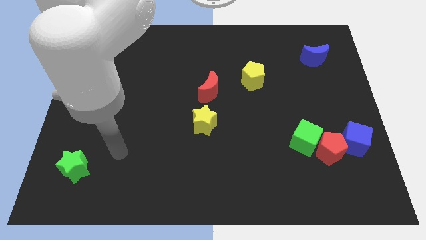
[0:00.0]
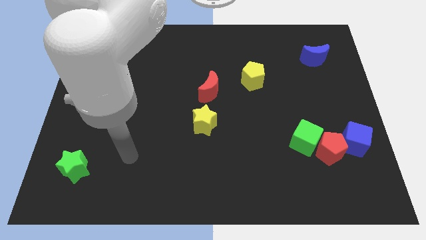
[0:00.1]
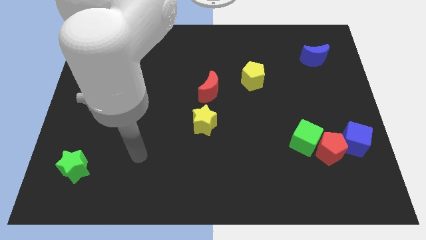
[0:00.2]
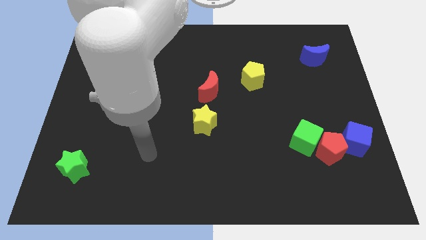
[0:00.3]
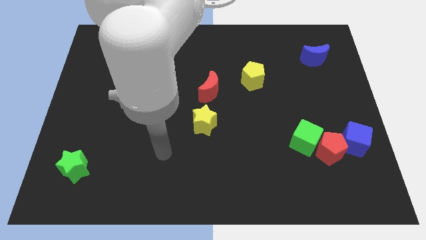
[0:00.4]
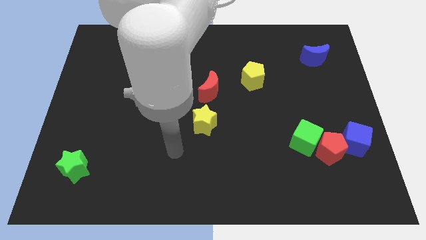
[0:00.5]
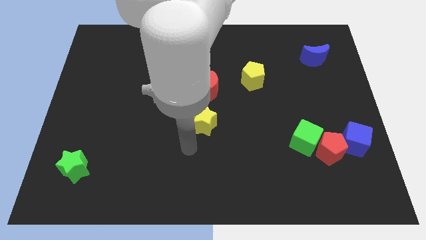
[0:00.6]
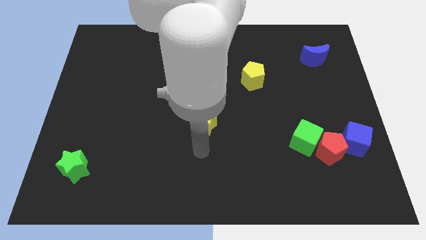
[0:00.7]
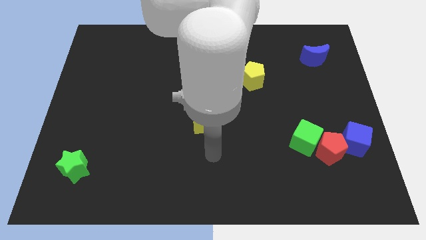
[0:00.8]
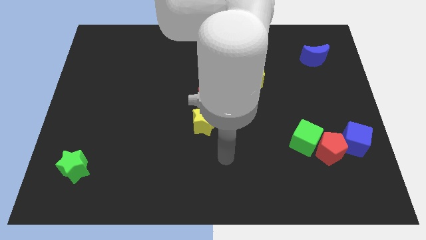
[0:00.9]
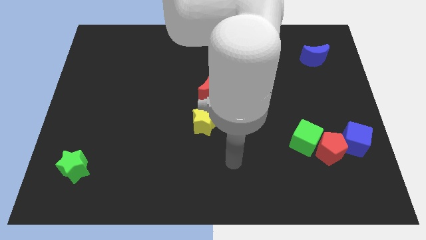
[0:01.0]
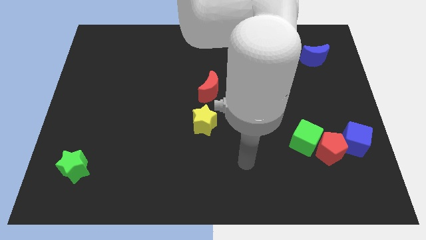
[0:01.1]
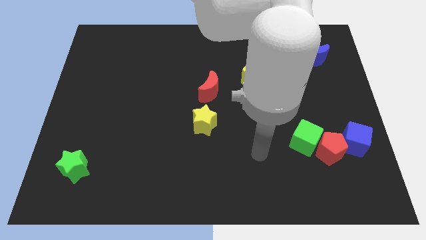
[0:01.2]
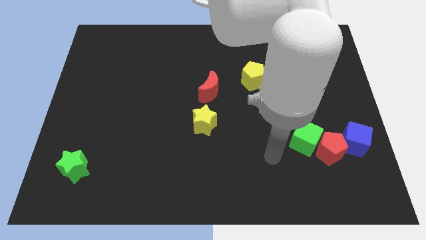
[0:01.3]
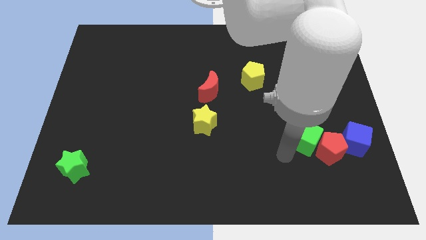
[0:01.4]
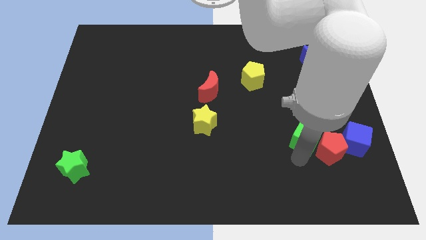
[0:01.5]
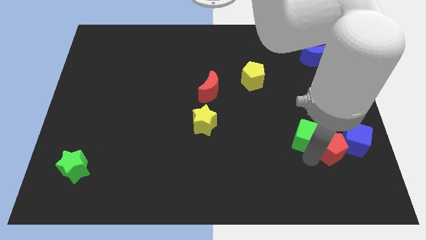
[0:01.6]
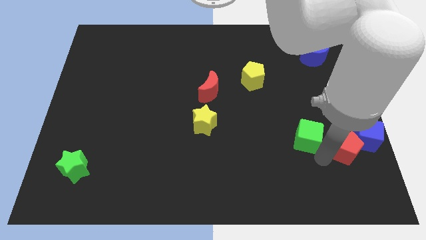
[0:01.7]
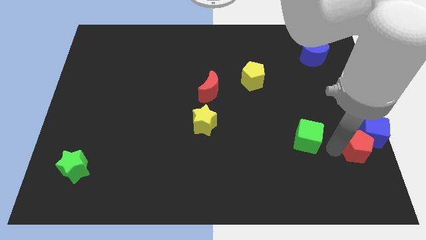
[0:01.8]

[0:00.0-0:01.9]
separate the green cube from the red pentagon

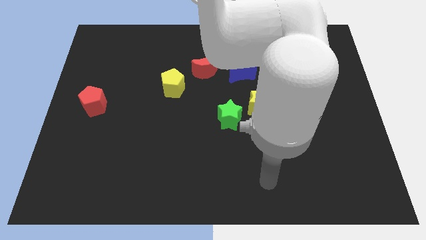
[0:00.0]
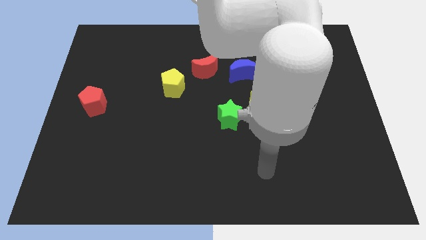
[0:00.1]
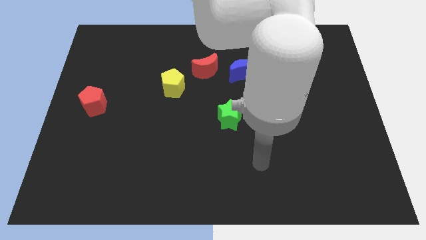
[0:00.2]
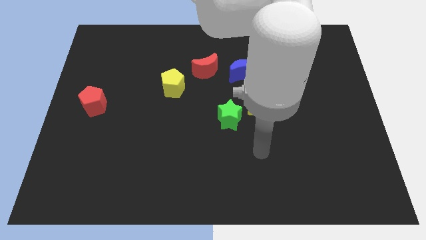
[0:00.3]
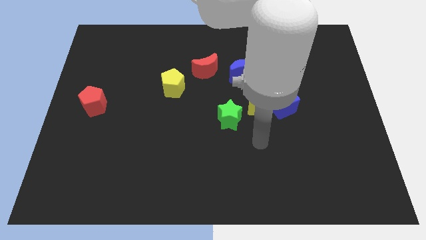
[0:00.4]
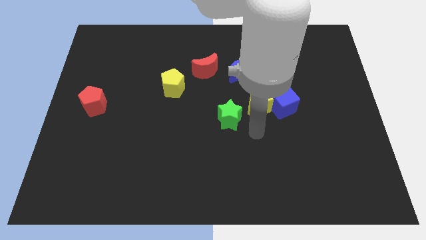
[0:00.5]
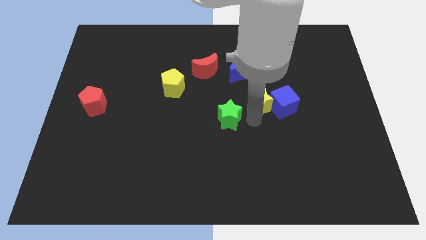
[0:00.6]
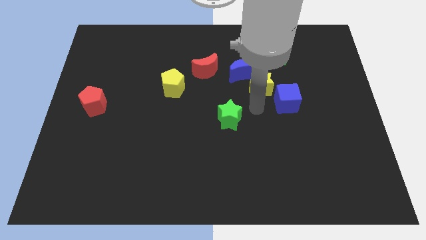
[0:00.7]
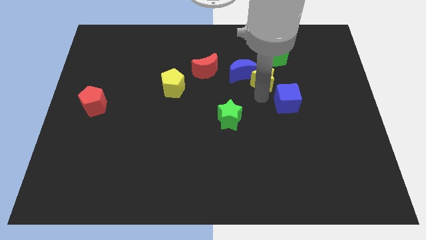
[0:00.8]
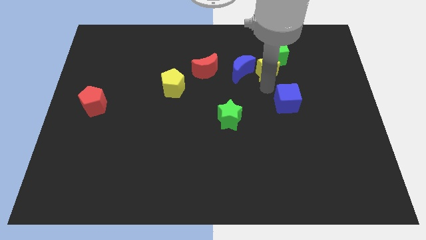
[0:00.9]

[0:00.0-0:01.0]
move the blue cube away from the yellow star

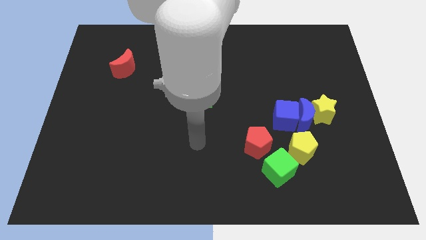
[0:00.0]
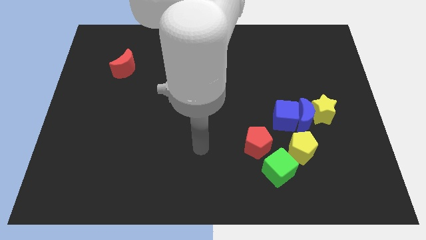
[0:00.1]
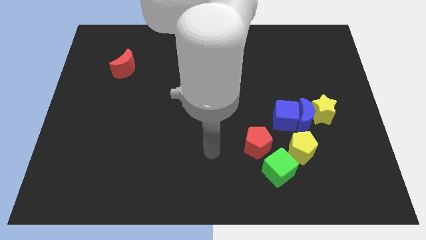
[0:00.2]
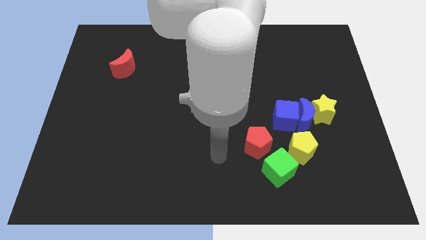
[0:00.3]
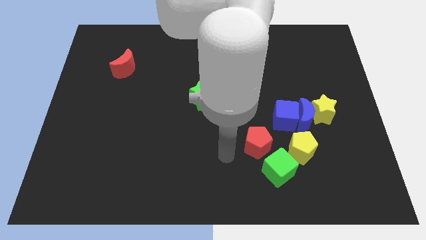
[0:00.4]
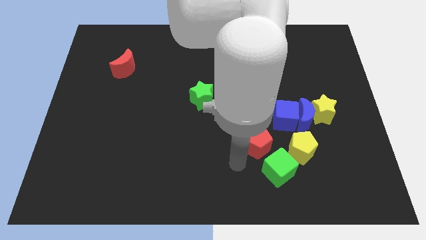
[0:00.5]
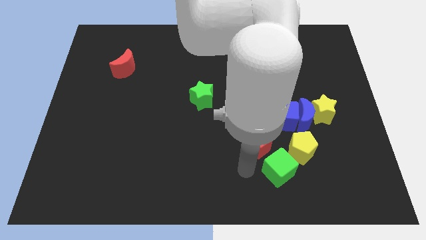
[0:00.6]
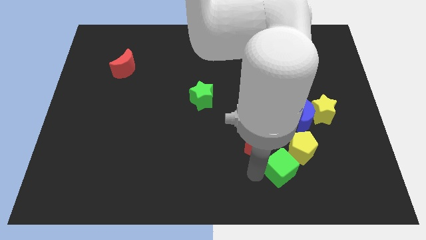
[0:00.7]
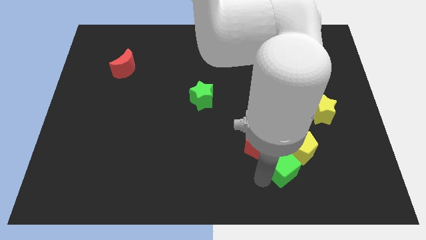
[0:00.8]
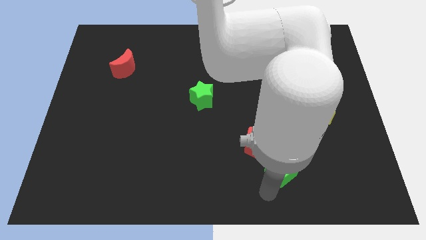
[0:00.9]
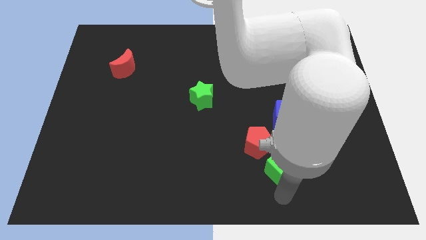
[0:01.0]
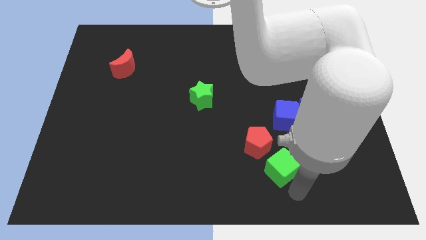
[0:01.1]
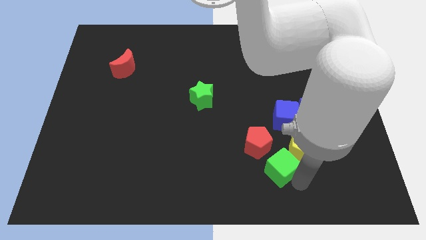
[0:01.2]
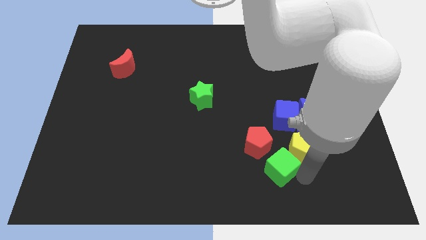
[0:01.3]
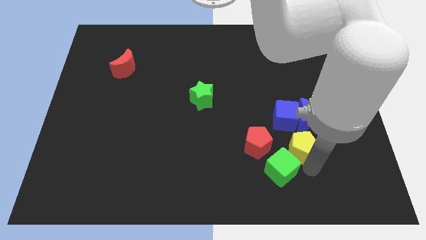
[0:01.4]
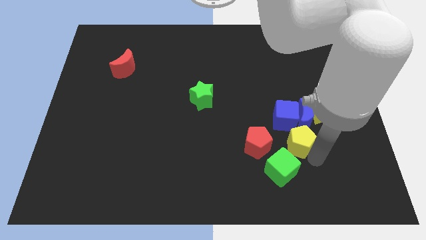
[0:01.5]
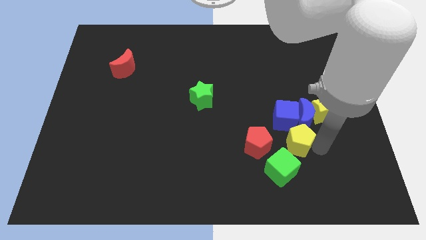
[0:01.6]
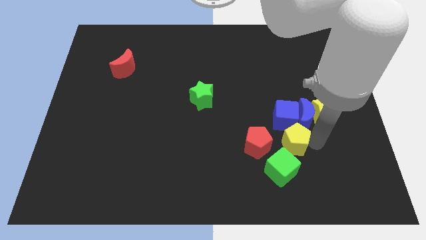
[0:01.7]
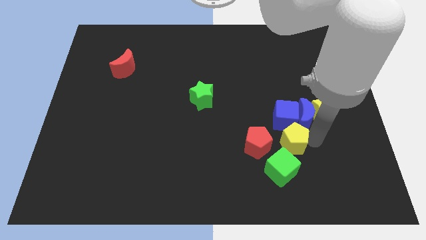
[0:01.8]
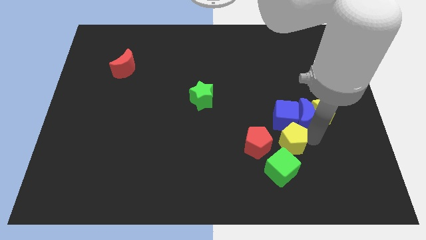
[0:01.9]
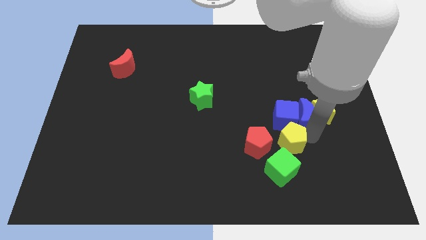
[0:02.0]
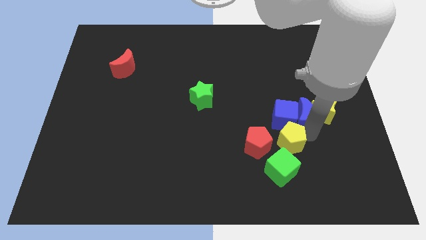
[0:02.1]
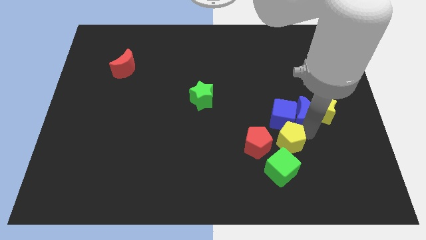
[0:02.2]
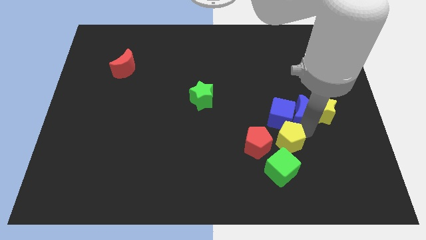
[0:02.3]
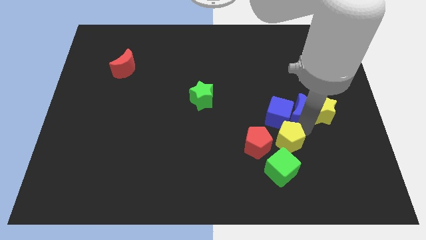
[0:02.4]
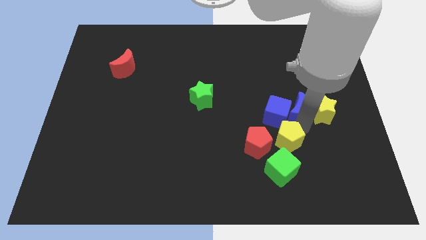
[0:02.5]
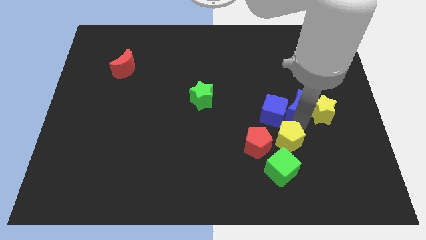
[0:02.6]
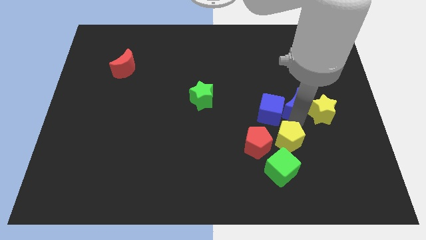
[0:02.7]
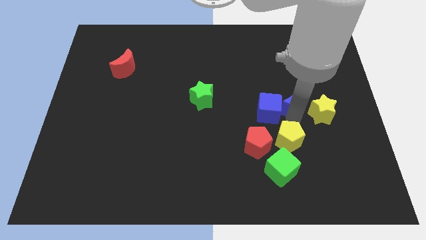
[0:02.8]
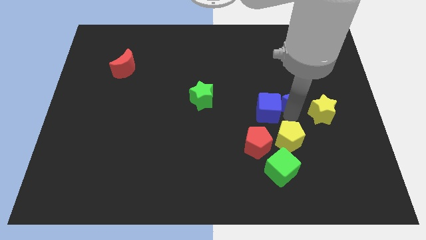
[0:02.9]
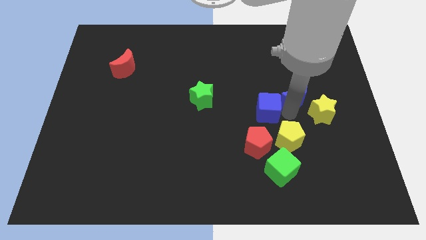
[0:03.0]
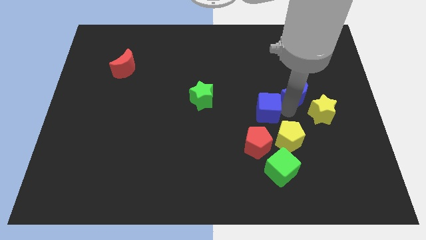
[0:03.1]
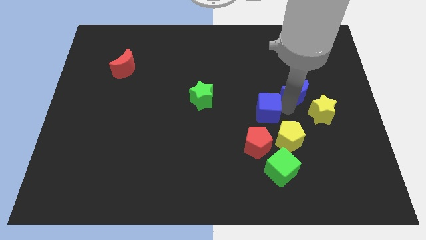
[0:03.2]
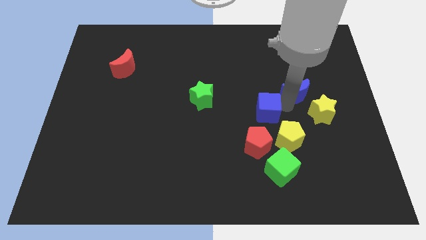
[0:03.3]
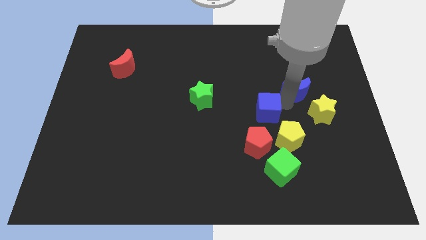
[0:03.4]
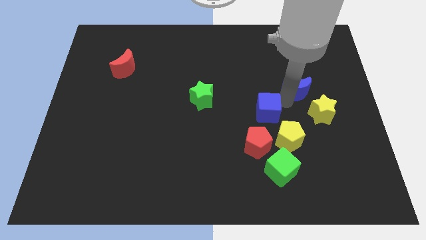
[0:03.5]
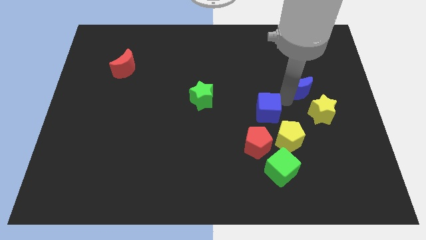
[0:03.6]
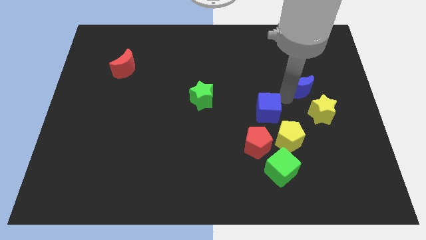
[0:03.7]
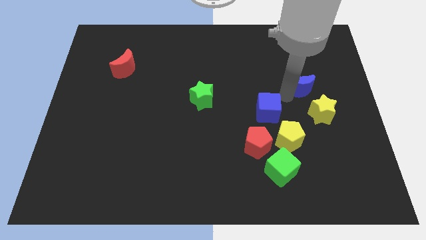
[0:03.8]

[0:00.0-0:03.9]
separate the blue moon from the clump

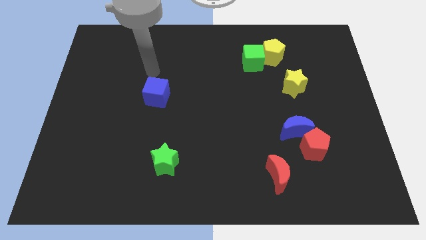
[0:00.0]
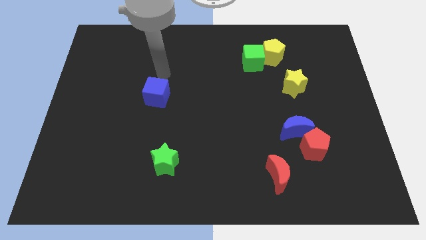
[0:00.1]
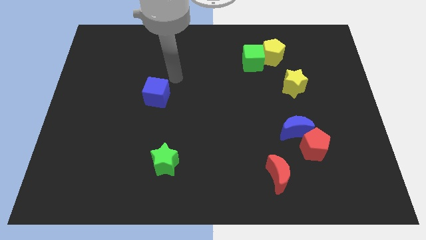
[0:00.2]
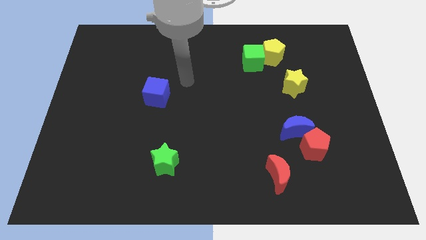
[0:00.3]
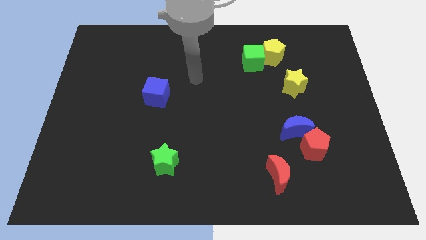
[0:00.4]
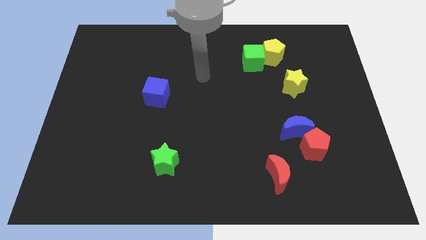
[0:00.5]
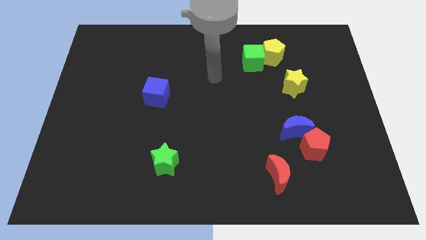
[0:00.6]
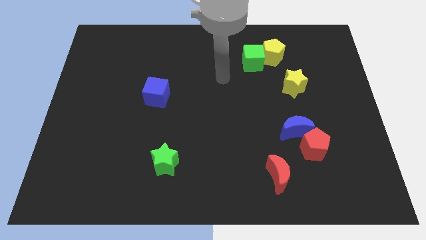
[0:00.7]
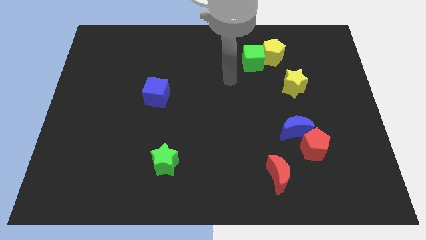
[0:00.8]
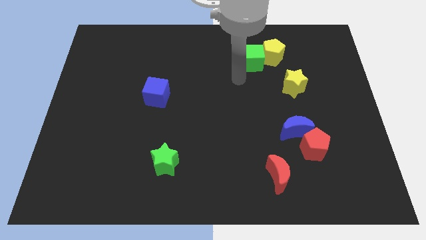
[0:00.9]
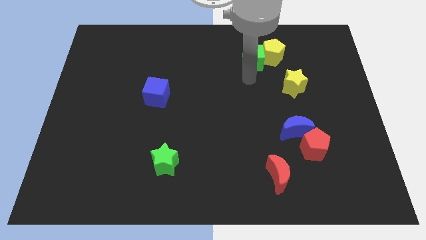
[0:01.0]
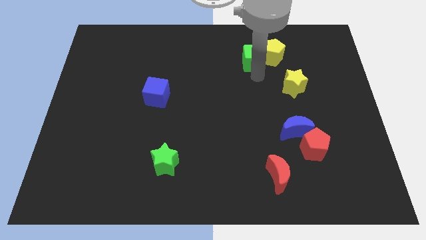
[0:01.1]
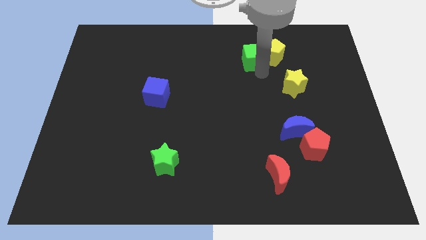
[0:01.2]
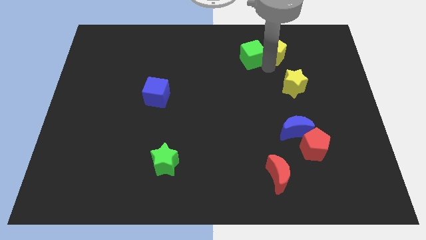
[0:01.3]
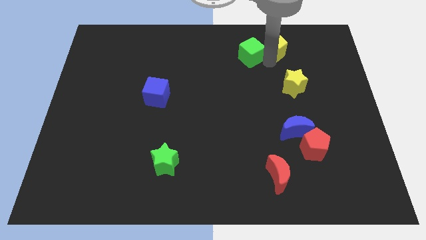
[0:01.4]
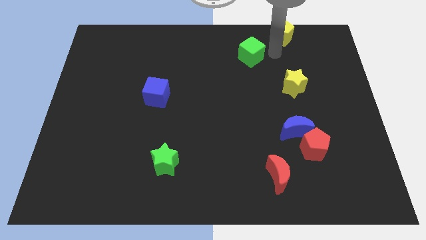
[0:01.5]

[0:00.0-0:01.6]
separate the green cube from the yellow pentagon

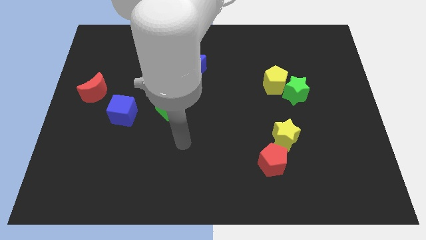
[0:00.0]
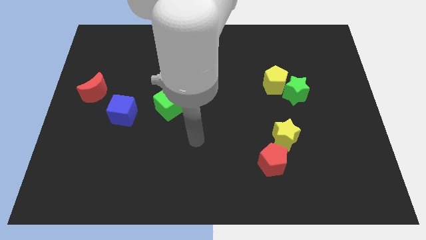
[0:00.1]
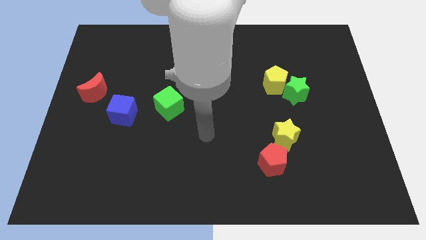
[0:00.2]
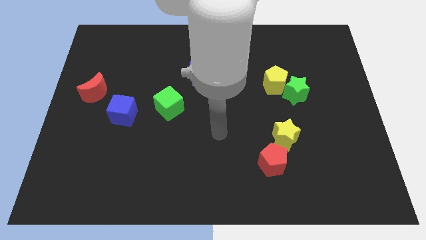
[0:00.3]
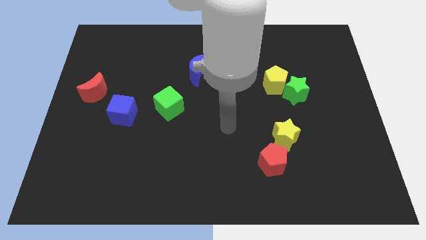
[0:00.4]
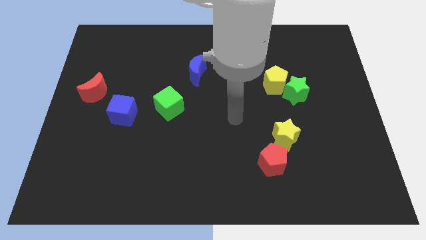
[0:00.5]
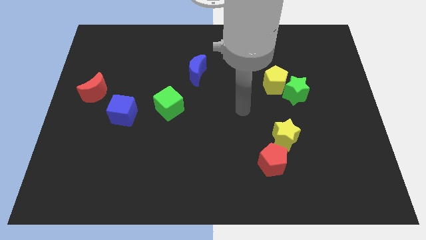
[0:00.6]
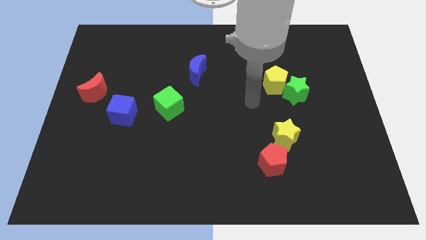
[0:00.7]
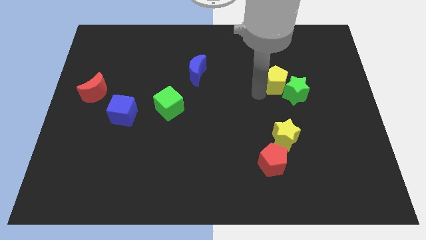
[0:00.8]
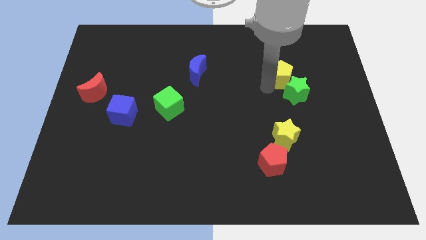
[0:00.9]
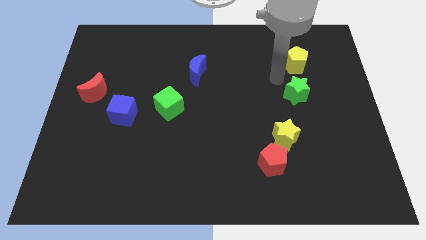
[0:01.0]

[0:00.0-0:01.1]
move the green star away from the yellow pentagon
